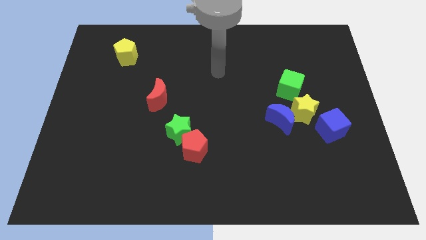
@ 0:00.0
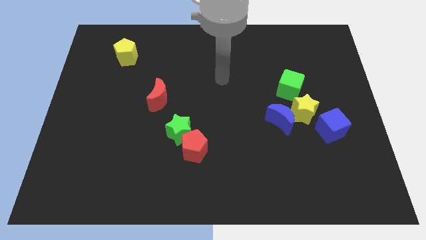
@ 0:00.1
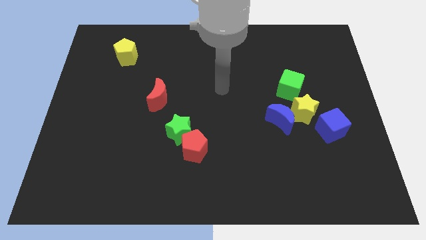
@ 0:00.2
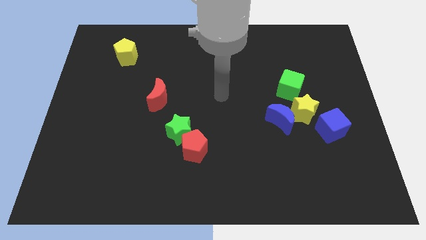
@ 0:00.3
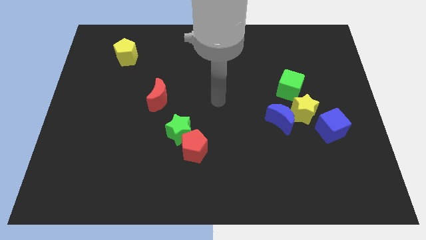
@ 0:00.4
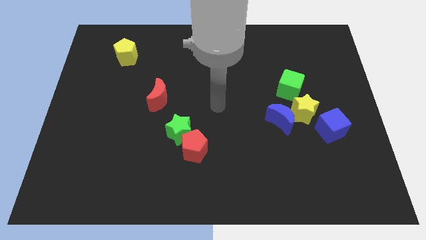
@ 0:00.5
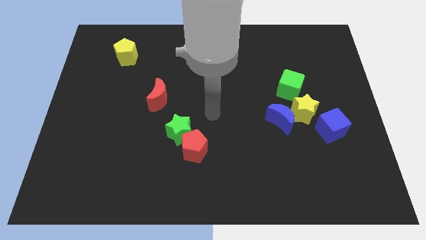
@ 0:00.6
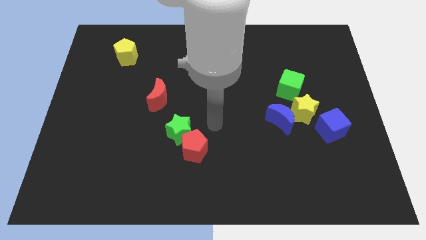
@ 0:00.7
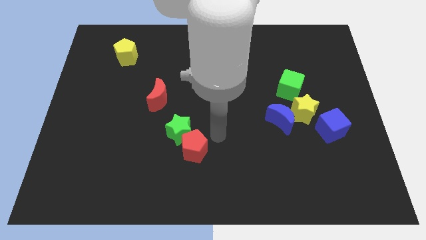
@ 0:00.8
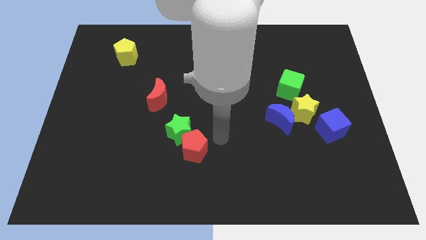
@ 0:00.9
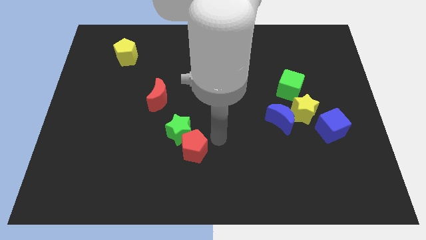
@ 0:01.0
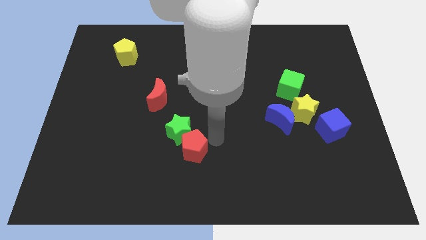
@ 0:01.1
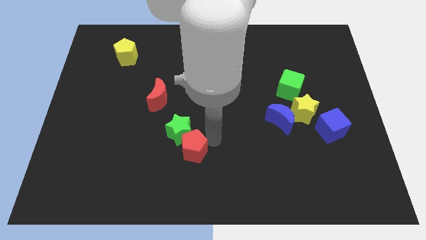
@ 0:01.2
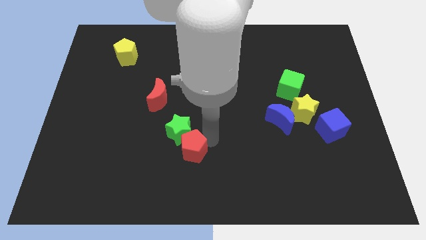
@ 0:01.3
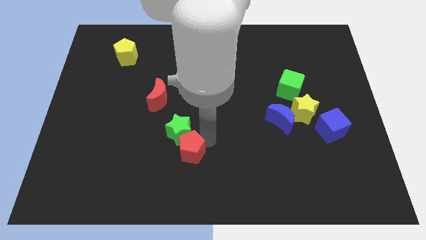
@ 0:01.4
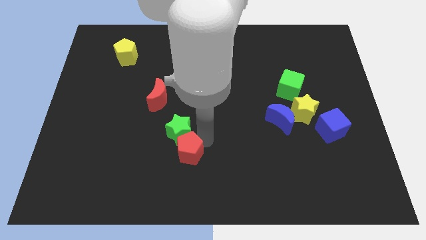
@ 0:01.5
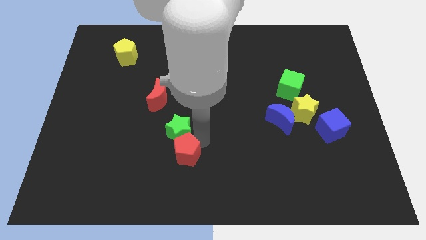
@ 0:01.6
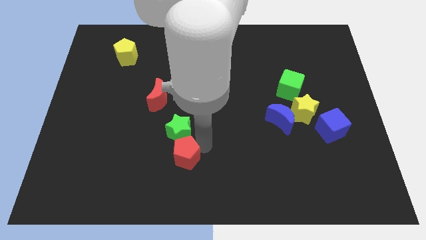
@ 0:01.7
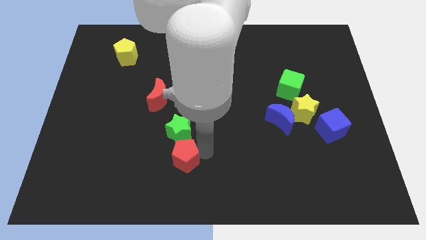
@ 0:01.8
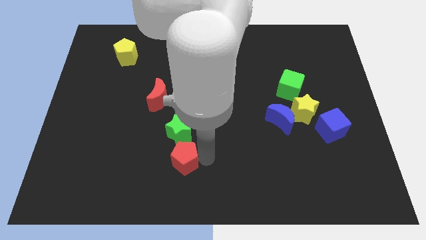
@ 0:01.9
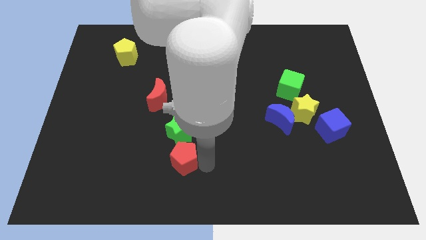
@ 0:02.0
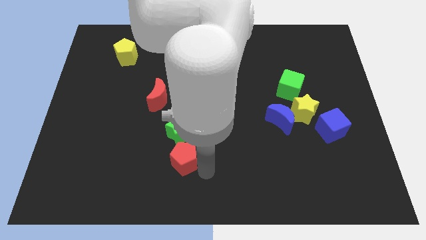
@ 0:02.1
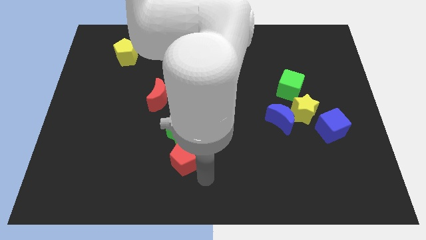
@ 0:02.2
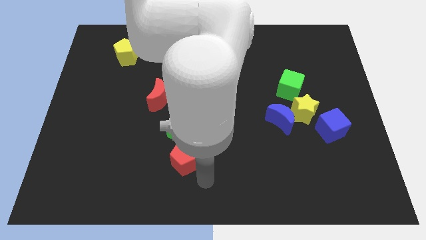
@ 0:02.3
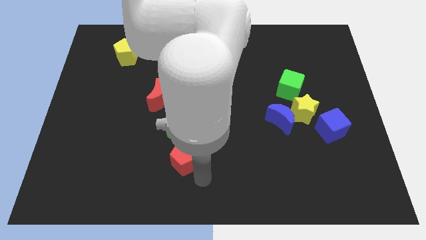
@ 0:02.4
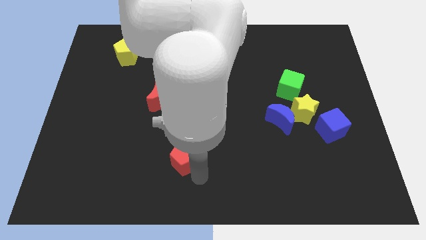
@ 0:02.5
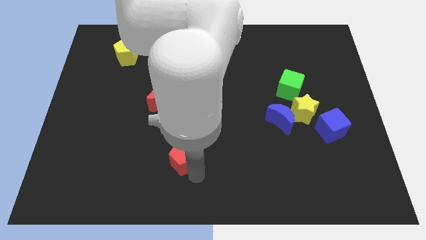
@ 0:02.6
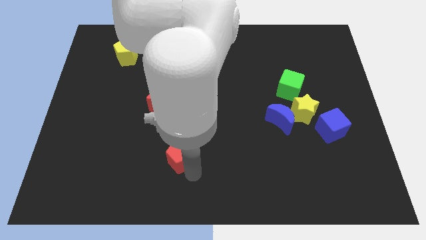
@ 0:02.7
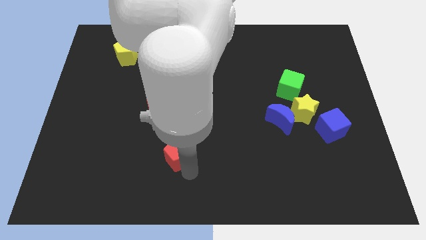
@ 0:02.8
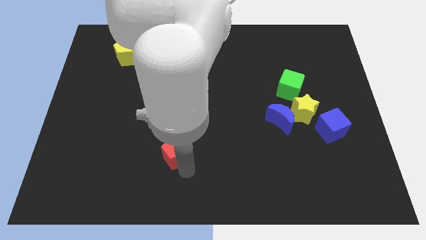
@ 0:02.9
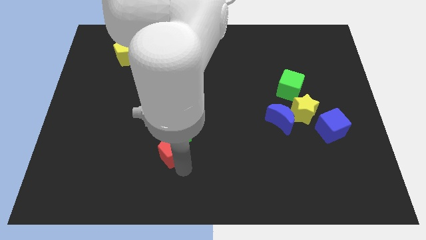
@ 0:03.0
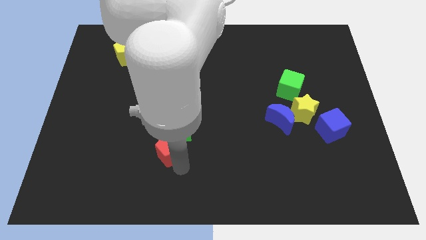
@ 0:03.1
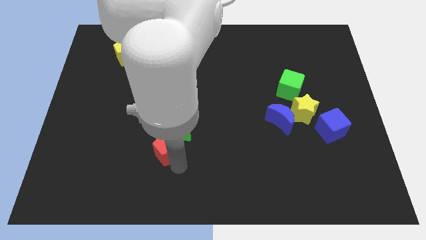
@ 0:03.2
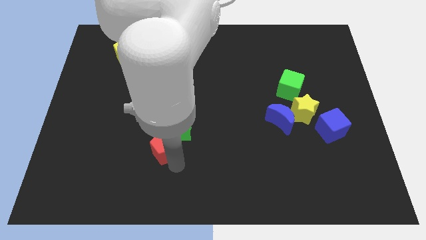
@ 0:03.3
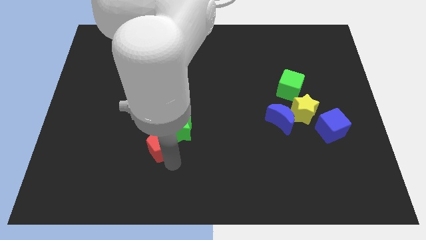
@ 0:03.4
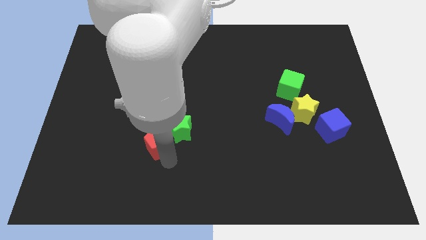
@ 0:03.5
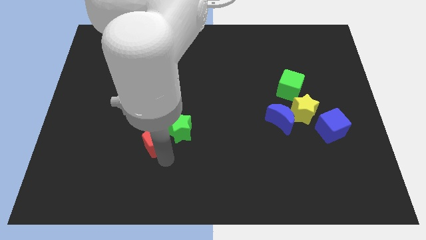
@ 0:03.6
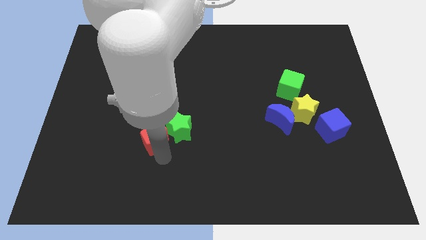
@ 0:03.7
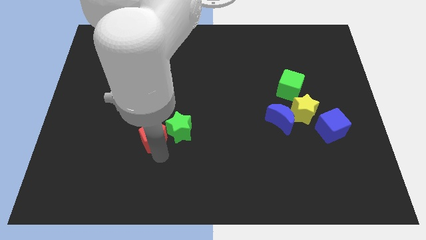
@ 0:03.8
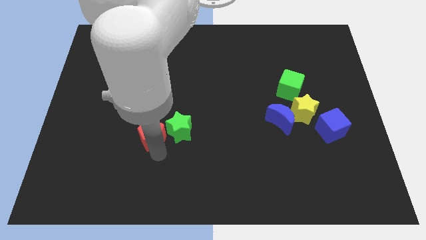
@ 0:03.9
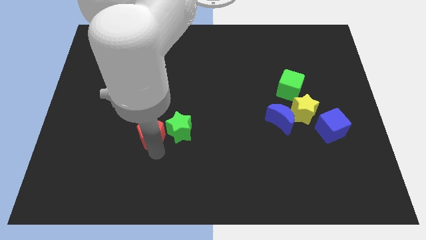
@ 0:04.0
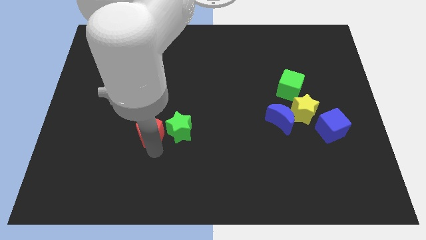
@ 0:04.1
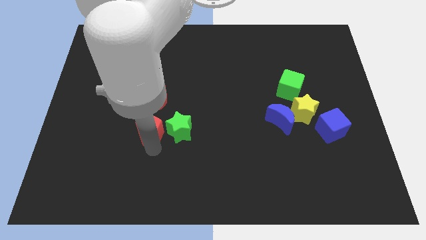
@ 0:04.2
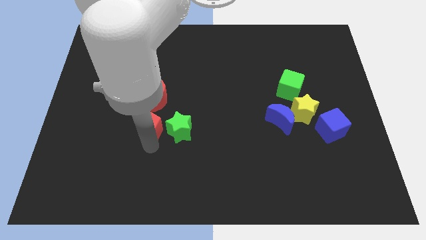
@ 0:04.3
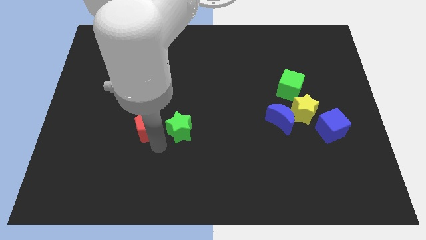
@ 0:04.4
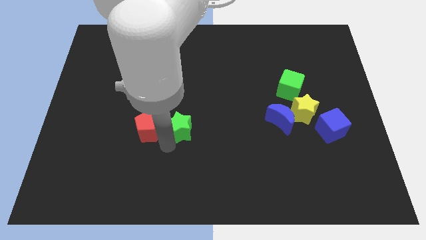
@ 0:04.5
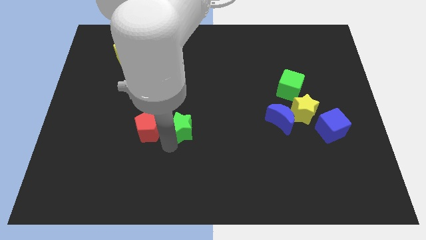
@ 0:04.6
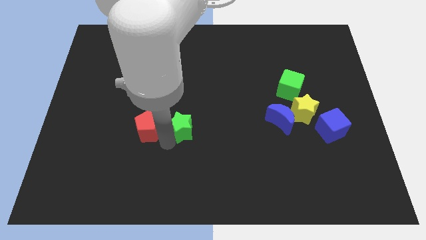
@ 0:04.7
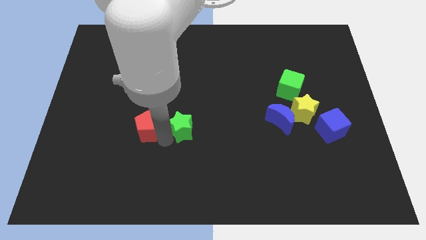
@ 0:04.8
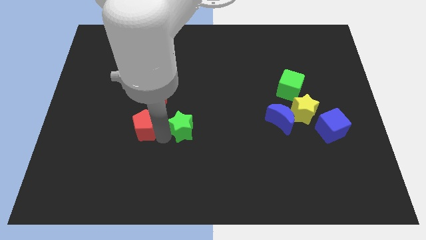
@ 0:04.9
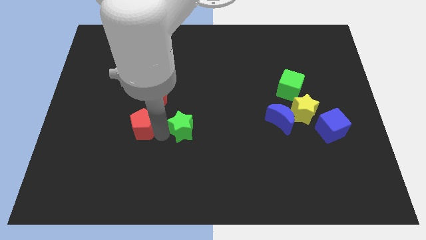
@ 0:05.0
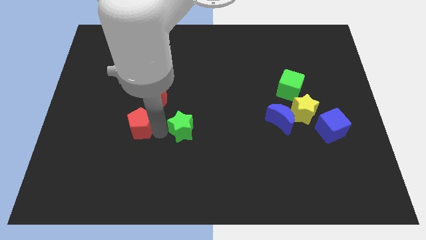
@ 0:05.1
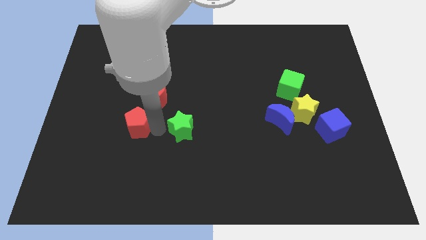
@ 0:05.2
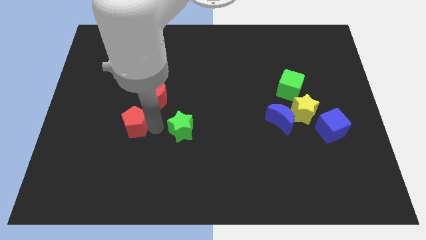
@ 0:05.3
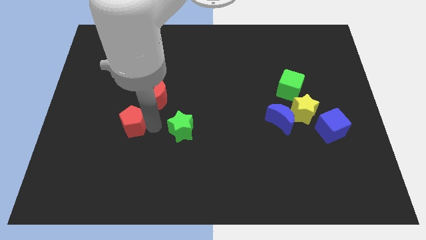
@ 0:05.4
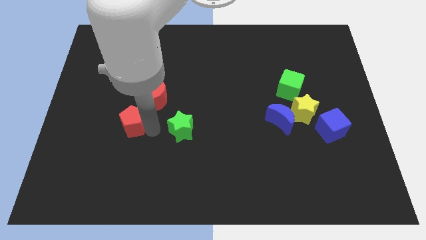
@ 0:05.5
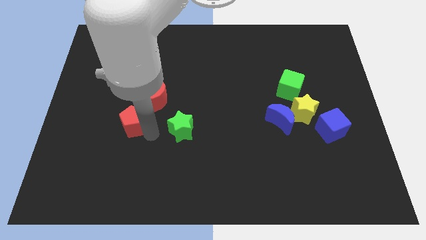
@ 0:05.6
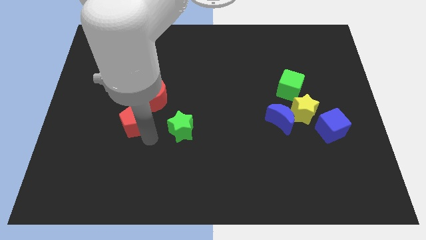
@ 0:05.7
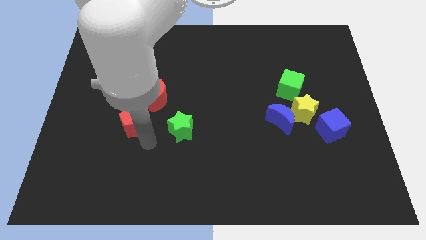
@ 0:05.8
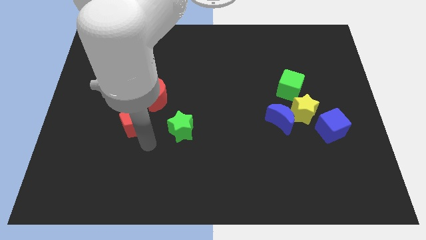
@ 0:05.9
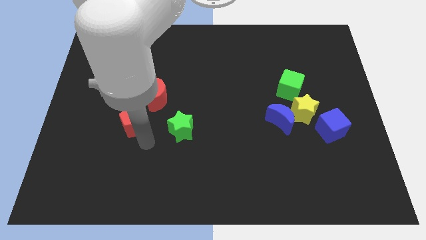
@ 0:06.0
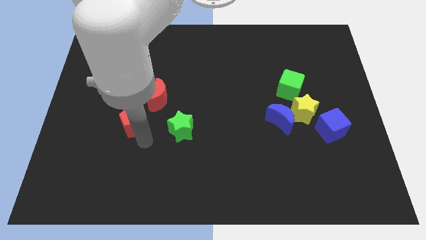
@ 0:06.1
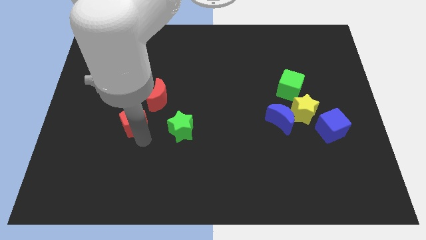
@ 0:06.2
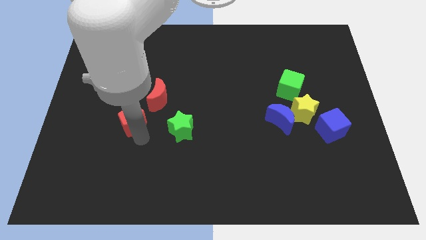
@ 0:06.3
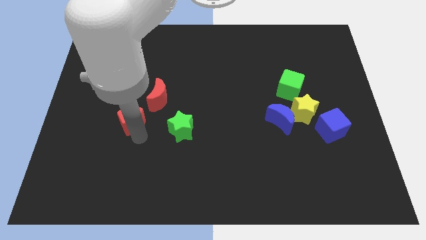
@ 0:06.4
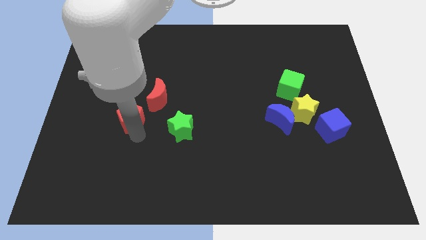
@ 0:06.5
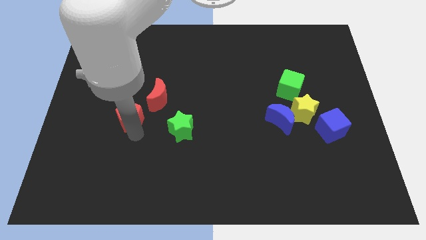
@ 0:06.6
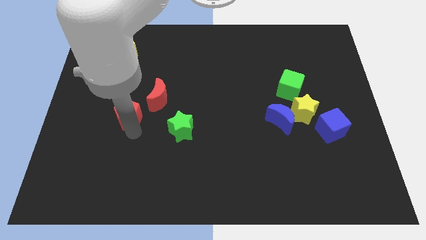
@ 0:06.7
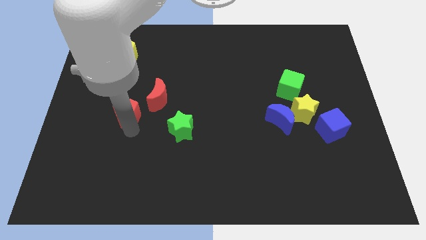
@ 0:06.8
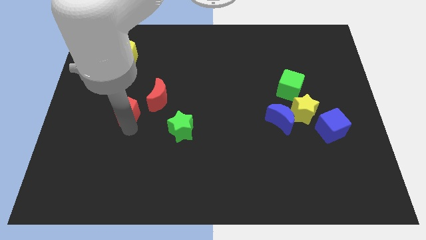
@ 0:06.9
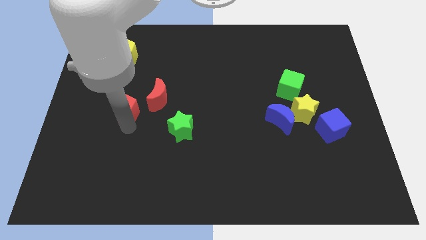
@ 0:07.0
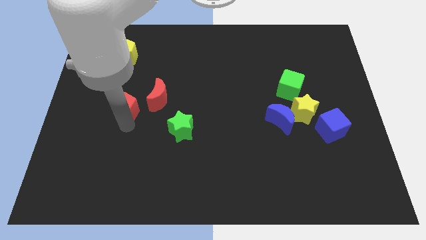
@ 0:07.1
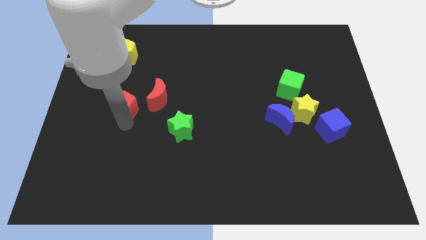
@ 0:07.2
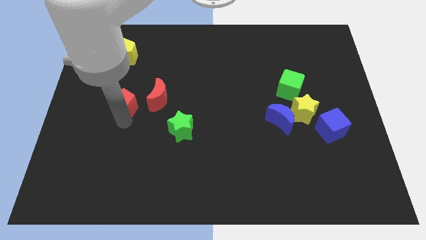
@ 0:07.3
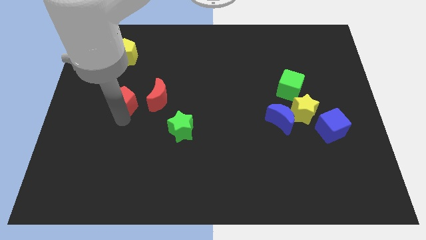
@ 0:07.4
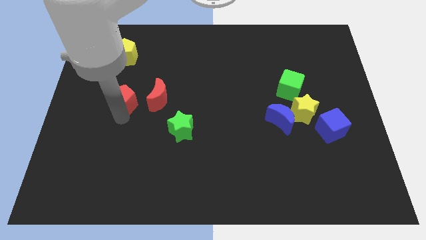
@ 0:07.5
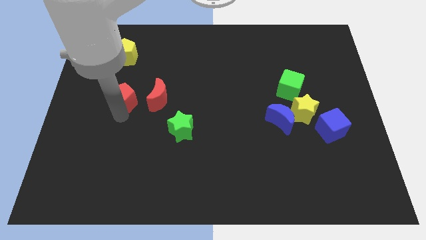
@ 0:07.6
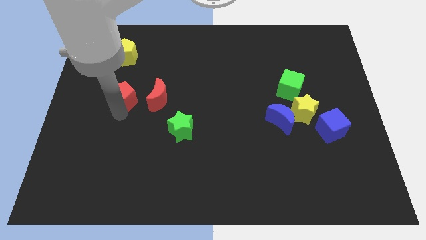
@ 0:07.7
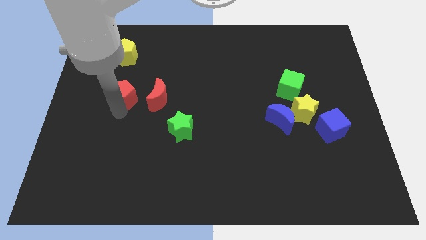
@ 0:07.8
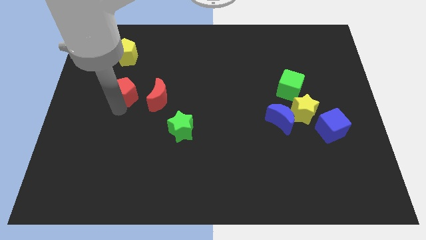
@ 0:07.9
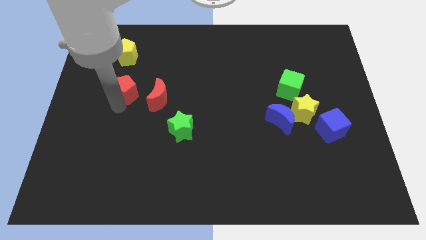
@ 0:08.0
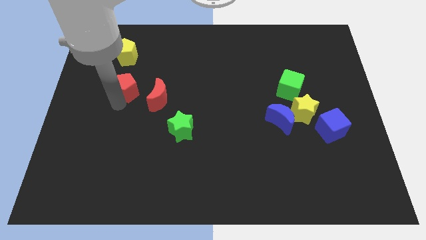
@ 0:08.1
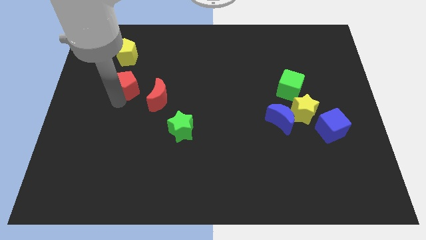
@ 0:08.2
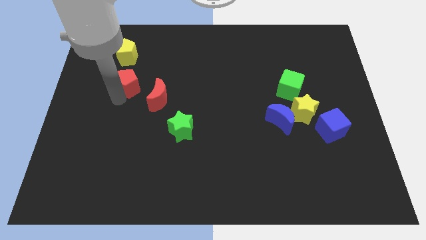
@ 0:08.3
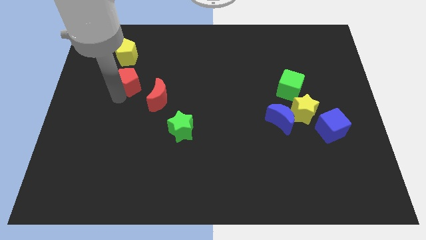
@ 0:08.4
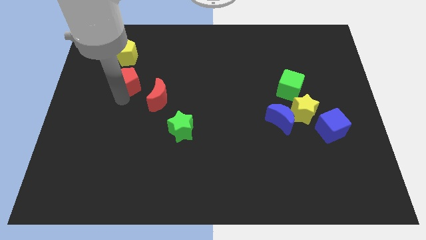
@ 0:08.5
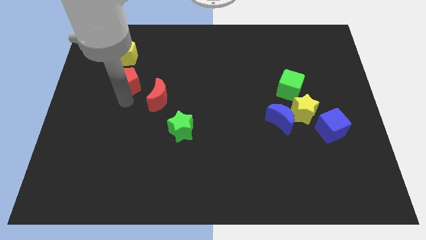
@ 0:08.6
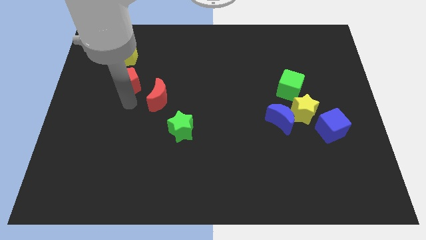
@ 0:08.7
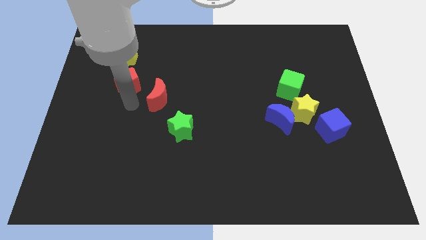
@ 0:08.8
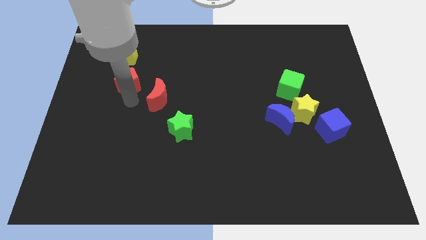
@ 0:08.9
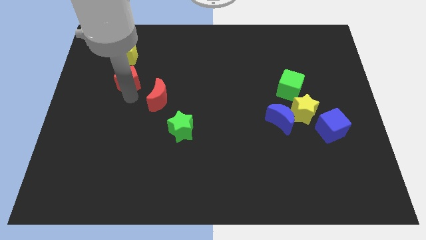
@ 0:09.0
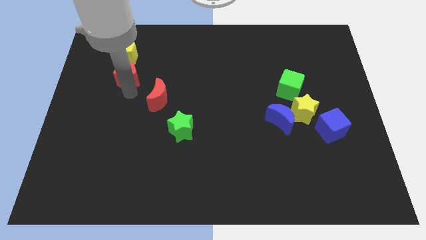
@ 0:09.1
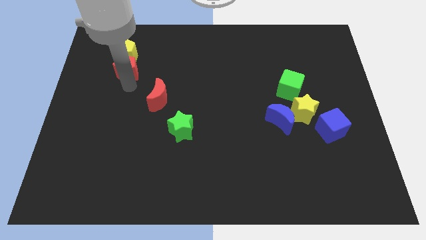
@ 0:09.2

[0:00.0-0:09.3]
slide the red pentagon to the yellow pentagon
